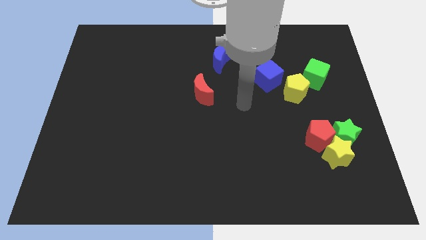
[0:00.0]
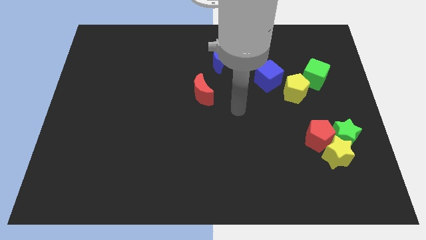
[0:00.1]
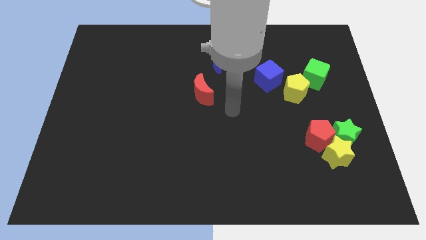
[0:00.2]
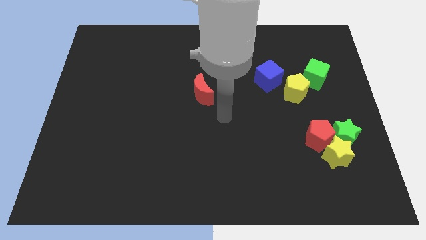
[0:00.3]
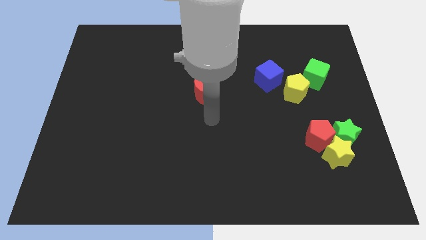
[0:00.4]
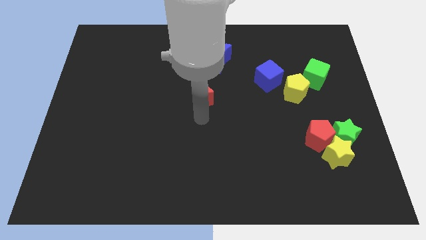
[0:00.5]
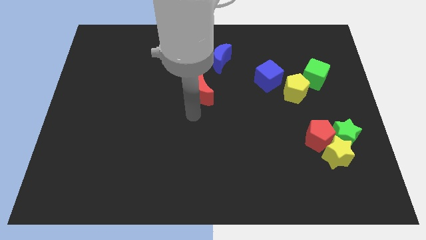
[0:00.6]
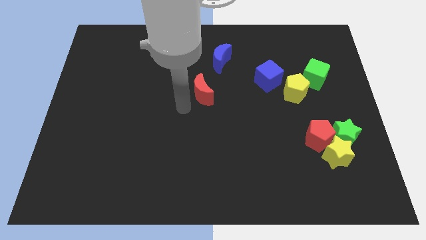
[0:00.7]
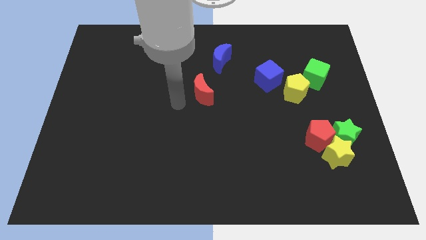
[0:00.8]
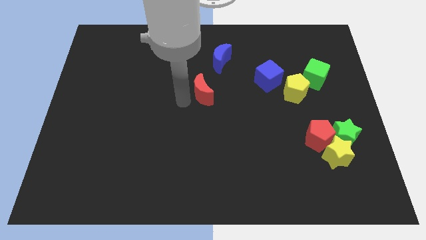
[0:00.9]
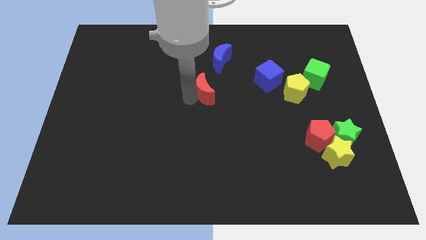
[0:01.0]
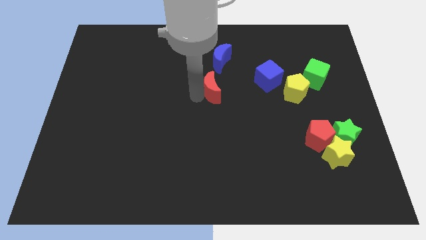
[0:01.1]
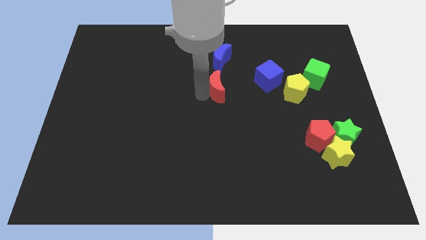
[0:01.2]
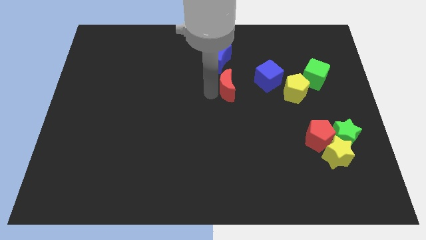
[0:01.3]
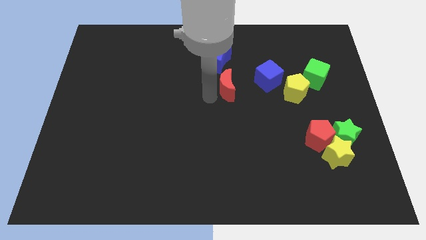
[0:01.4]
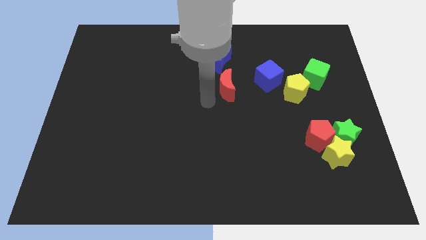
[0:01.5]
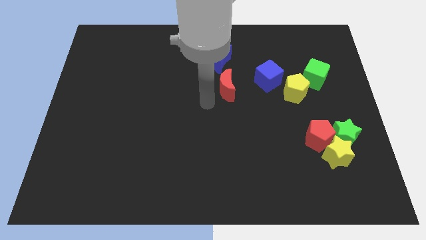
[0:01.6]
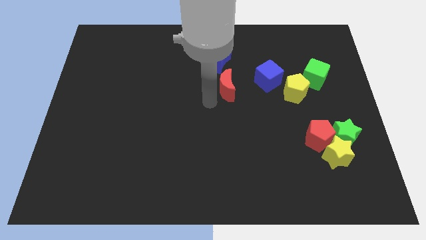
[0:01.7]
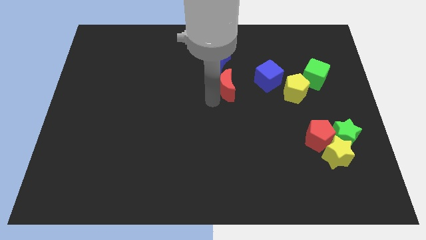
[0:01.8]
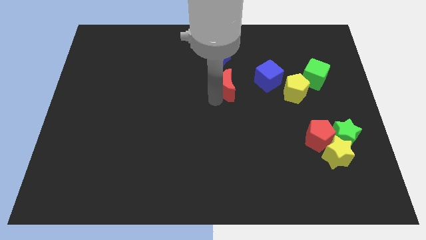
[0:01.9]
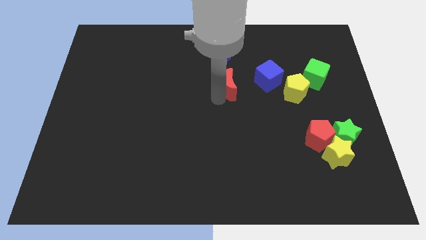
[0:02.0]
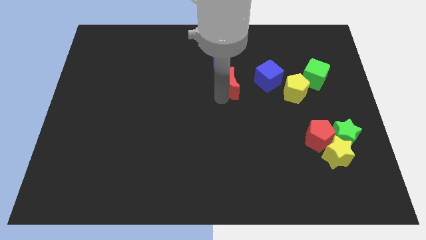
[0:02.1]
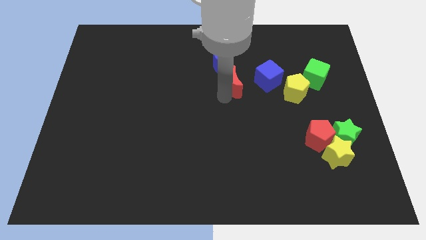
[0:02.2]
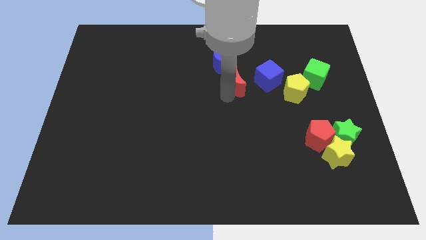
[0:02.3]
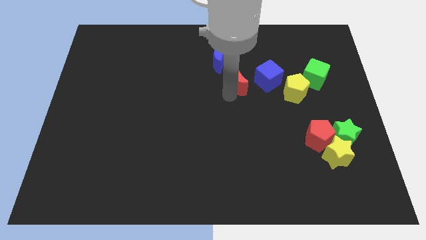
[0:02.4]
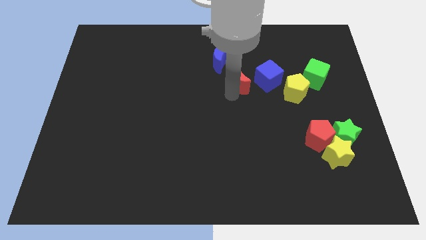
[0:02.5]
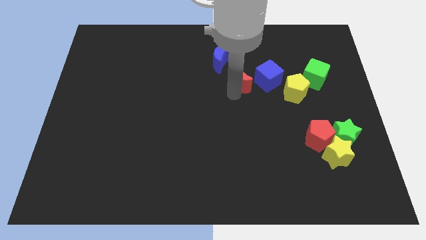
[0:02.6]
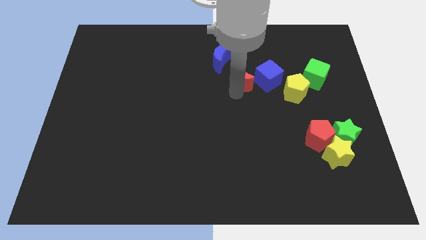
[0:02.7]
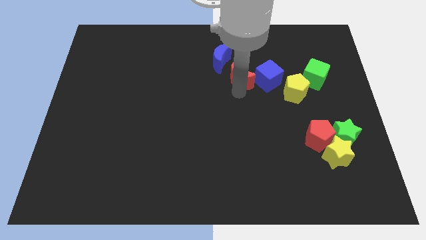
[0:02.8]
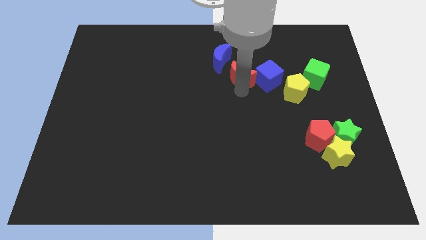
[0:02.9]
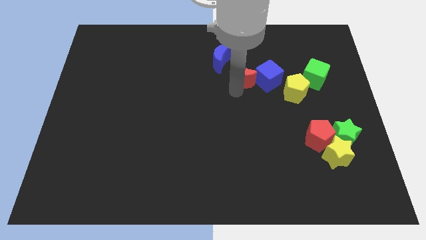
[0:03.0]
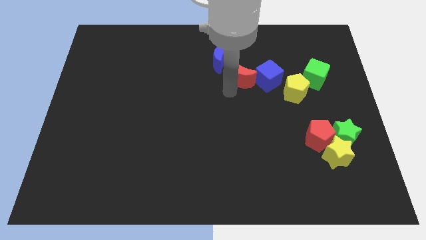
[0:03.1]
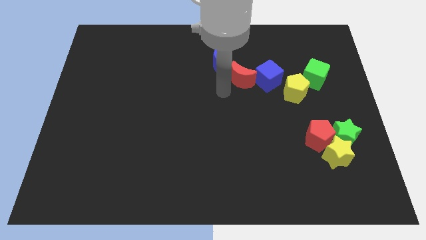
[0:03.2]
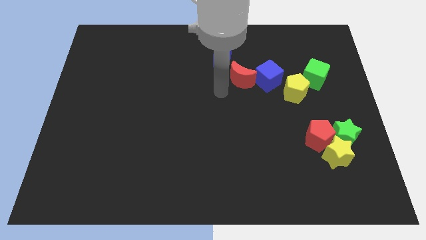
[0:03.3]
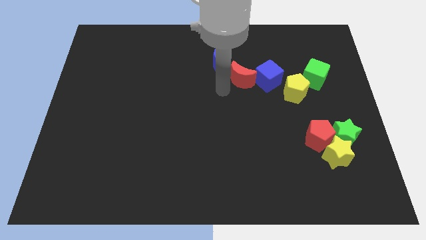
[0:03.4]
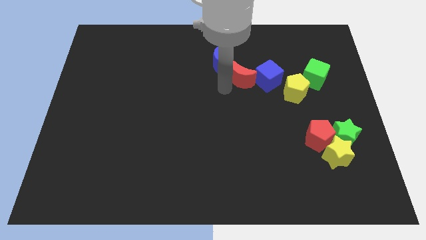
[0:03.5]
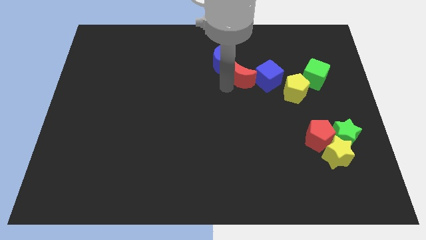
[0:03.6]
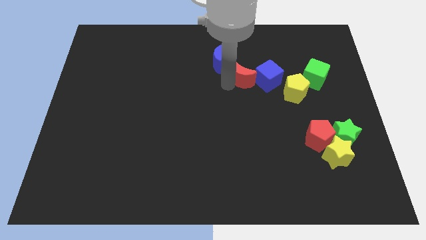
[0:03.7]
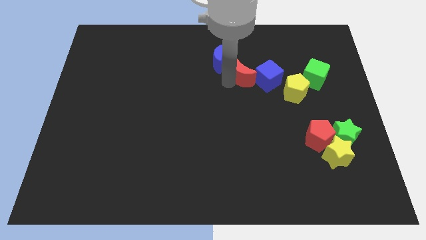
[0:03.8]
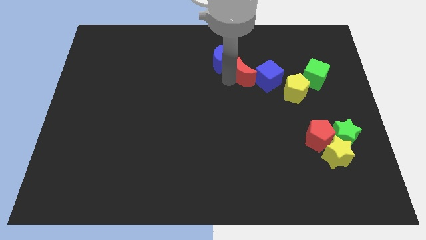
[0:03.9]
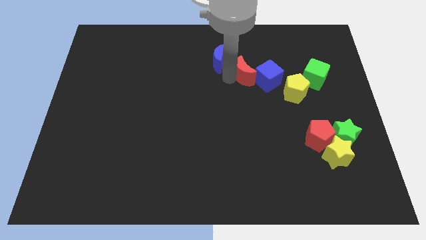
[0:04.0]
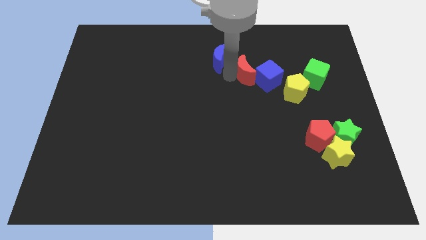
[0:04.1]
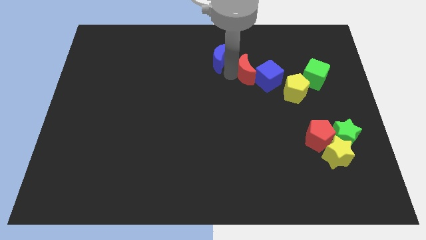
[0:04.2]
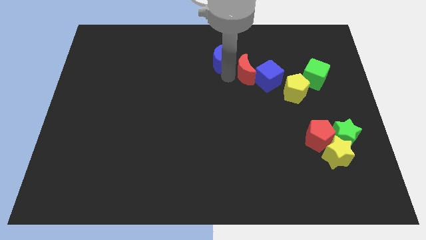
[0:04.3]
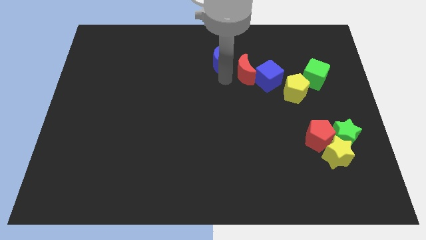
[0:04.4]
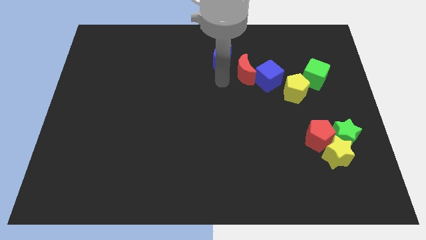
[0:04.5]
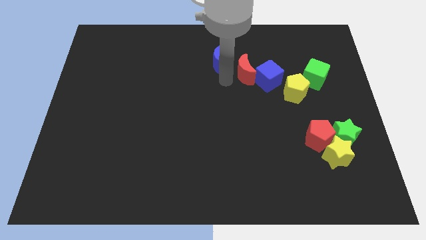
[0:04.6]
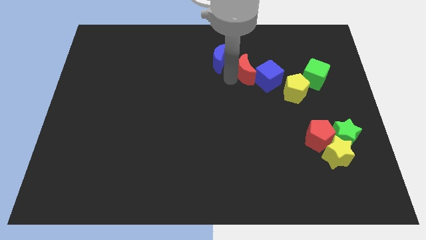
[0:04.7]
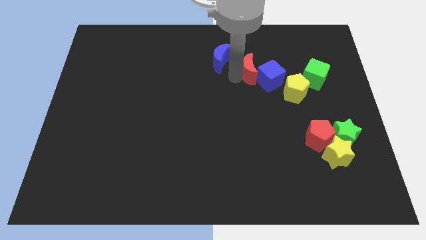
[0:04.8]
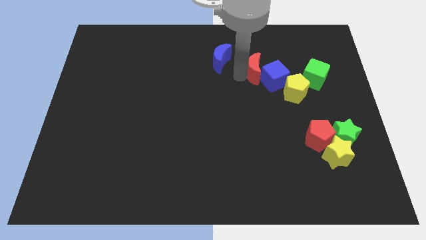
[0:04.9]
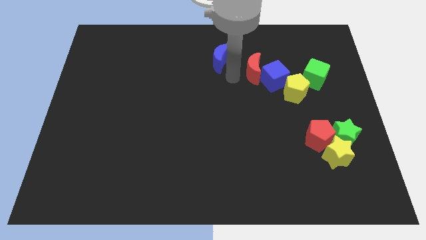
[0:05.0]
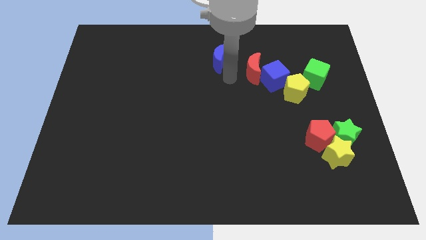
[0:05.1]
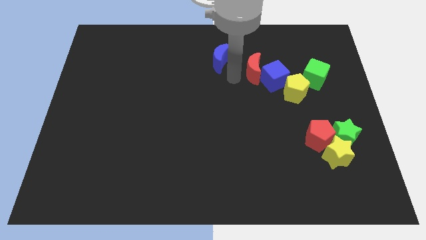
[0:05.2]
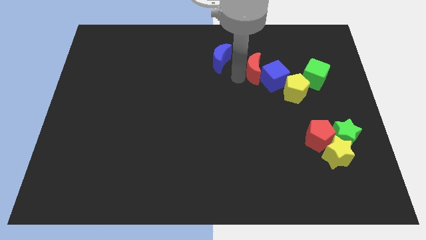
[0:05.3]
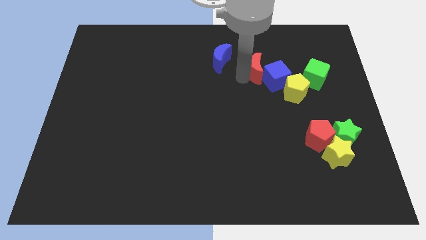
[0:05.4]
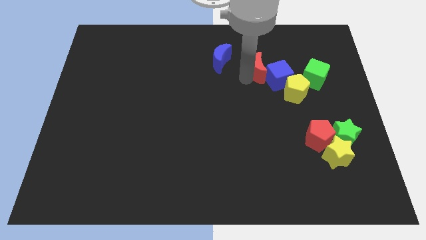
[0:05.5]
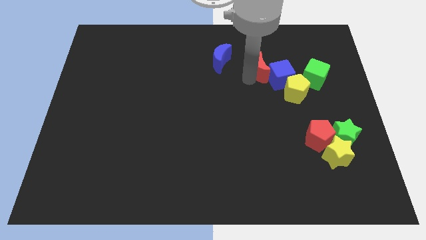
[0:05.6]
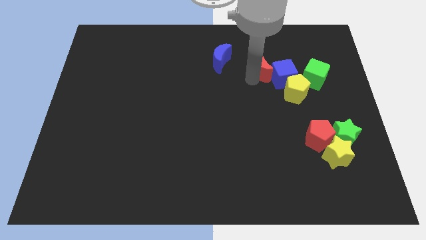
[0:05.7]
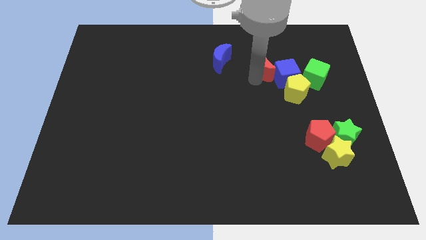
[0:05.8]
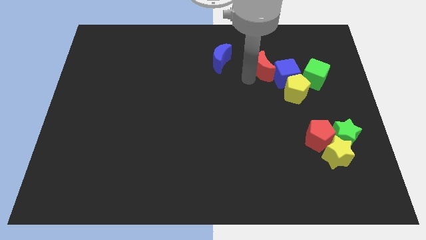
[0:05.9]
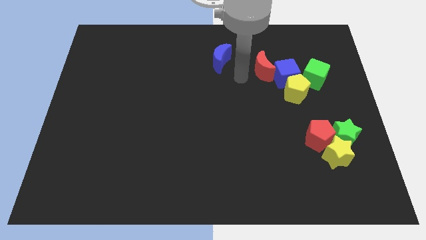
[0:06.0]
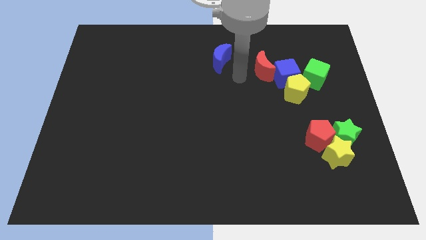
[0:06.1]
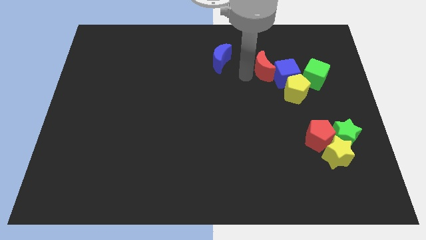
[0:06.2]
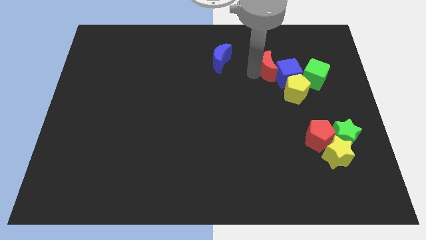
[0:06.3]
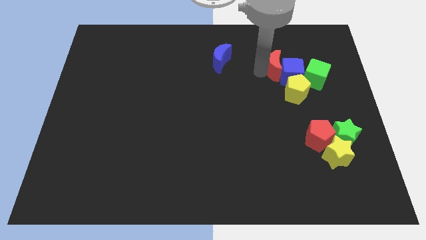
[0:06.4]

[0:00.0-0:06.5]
push the red moon to the top of the yellow pentagon

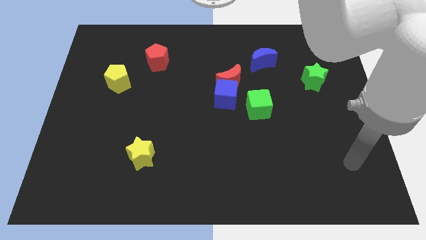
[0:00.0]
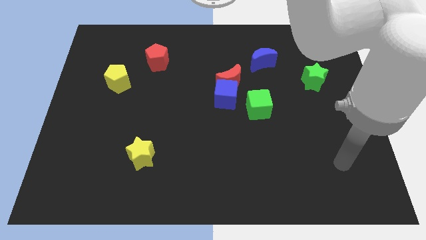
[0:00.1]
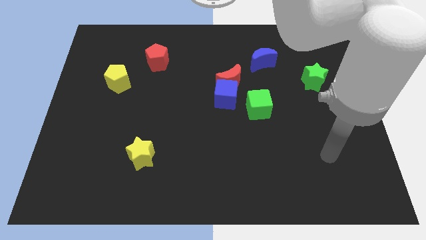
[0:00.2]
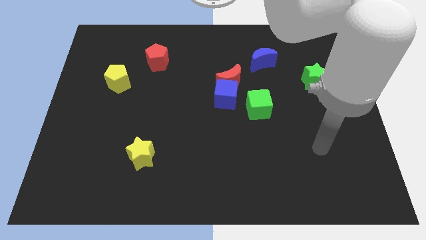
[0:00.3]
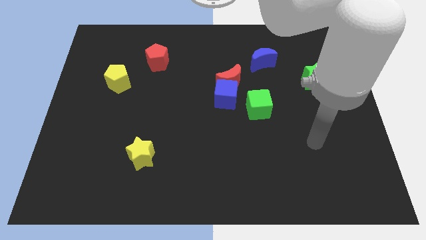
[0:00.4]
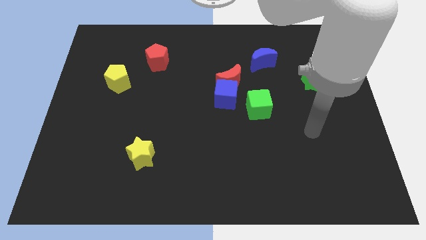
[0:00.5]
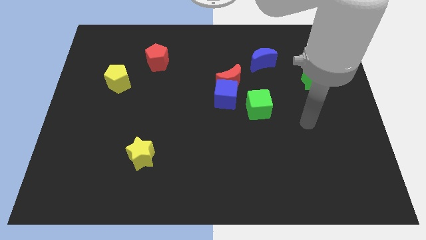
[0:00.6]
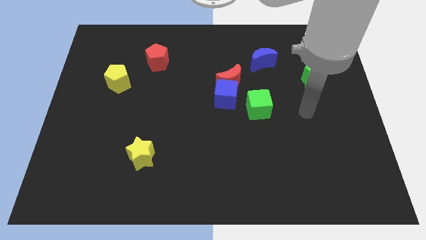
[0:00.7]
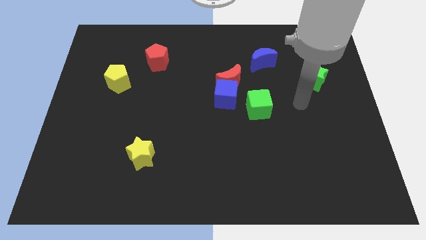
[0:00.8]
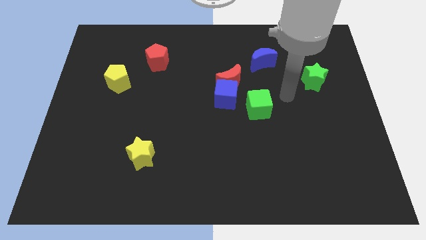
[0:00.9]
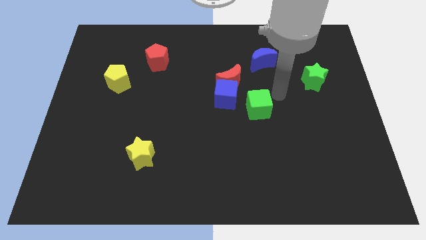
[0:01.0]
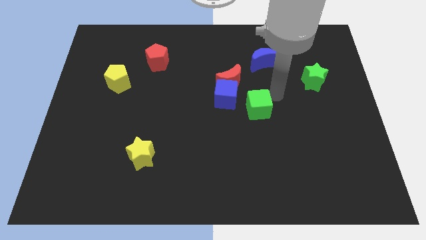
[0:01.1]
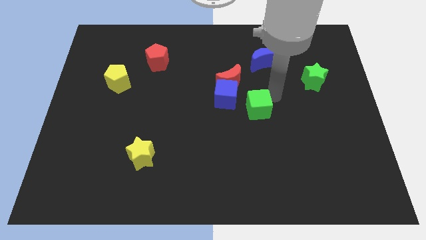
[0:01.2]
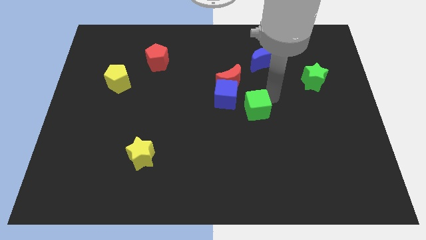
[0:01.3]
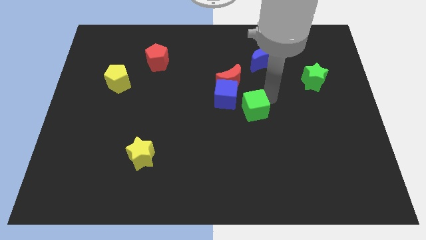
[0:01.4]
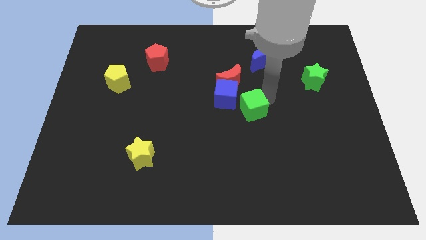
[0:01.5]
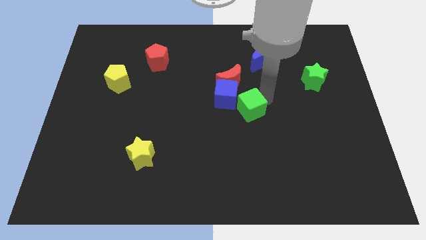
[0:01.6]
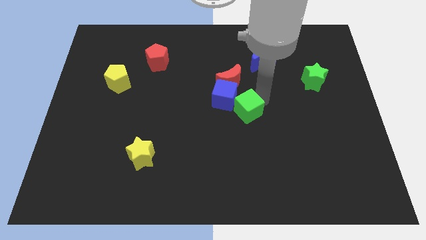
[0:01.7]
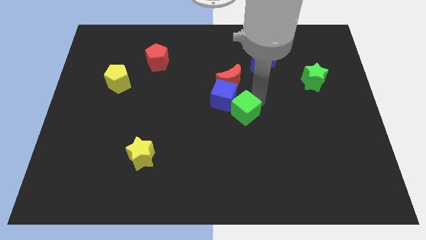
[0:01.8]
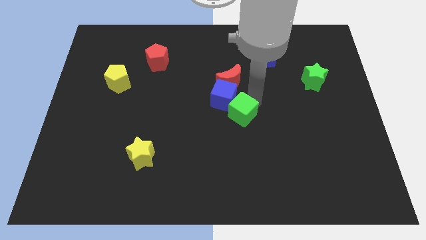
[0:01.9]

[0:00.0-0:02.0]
push the green cube below the blue cube
